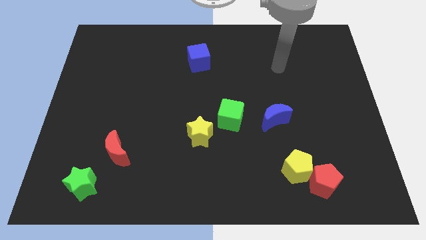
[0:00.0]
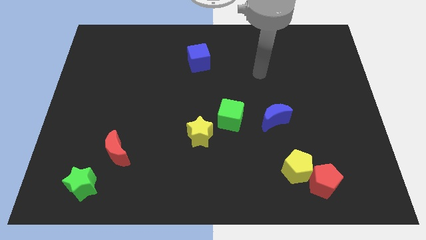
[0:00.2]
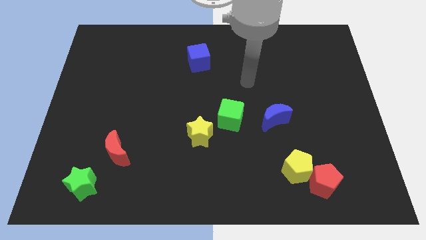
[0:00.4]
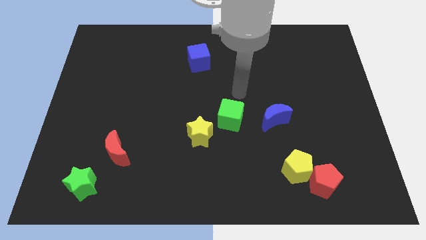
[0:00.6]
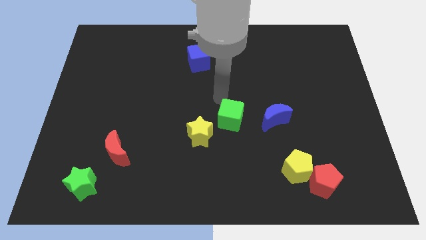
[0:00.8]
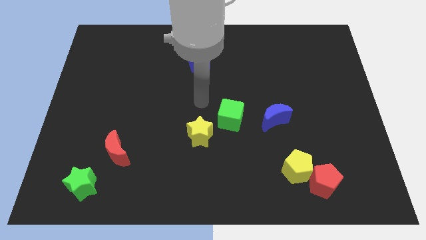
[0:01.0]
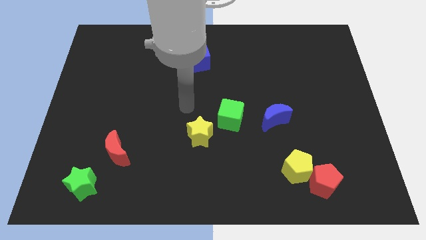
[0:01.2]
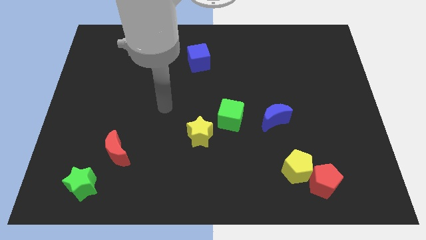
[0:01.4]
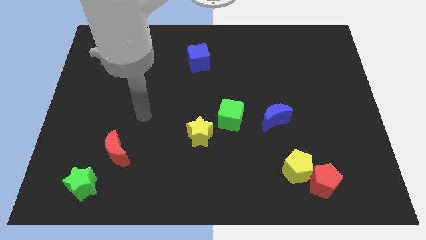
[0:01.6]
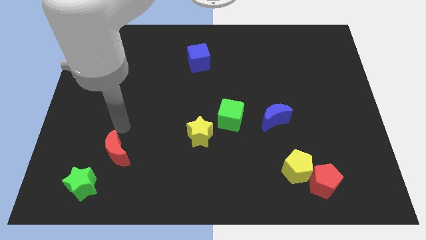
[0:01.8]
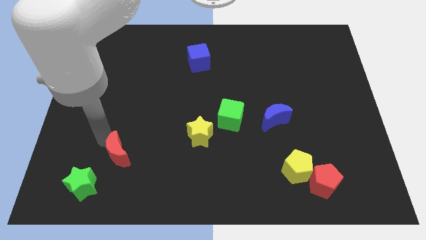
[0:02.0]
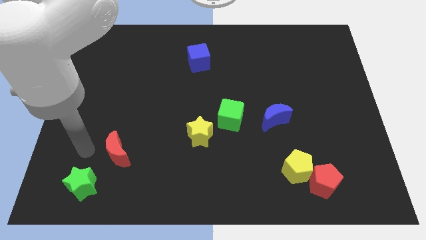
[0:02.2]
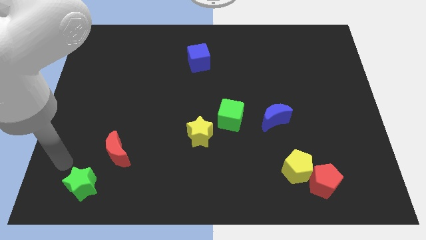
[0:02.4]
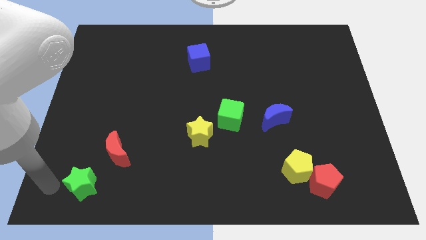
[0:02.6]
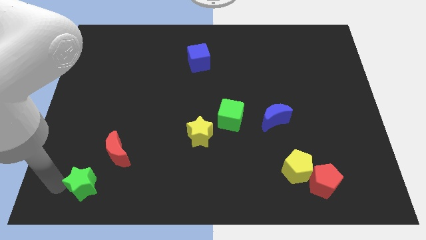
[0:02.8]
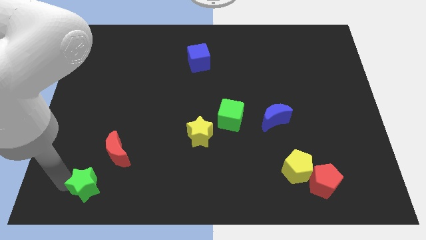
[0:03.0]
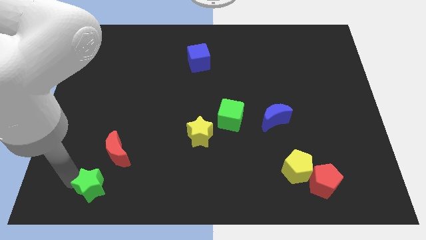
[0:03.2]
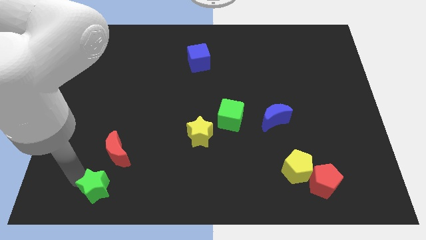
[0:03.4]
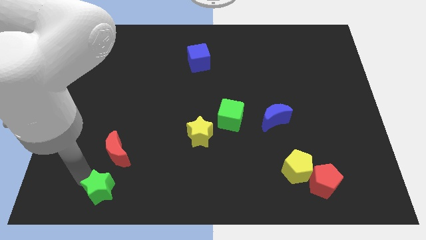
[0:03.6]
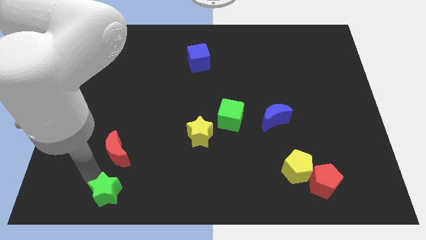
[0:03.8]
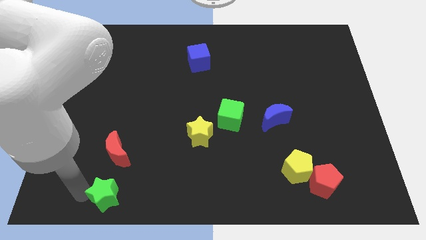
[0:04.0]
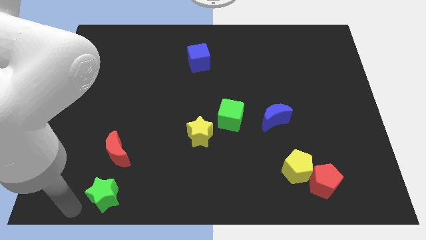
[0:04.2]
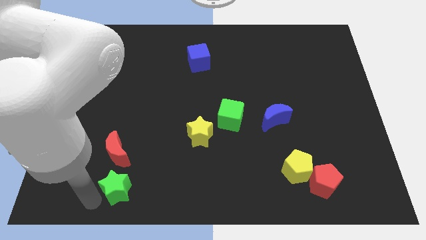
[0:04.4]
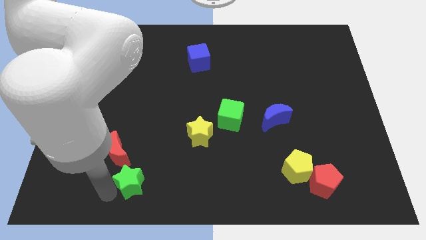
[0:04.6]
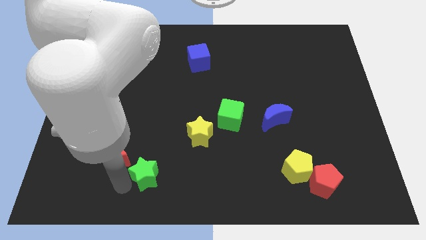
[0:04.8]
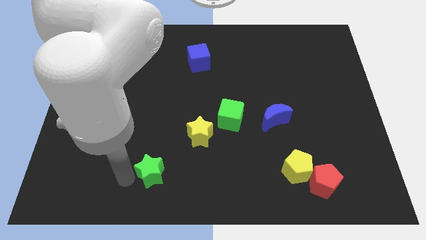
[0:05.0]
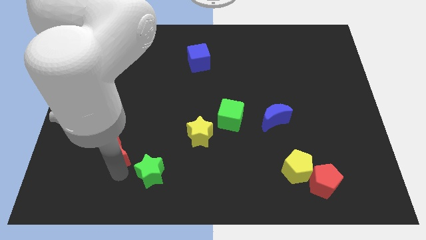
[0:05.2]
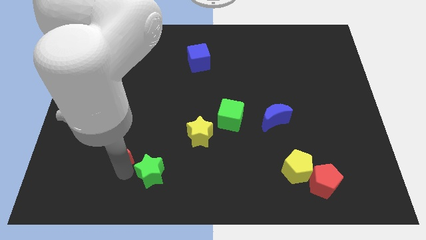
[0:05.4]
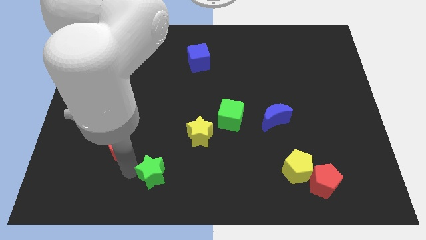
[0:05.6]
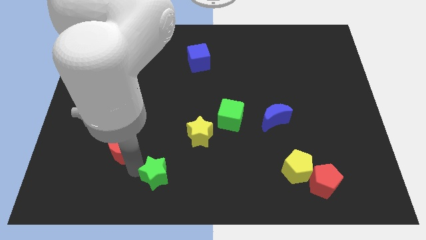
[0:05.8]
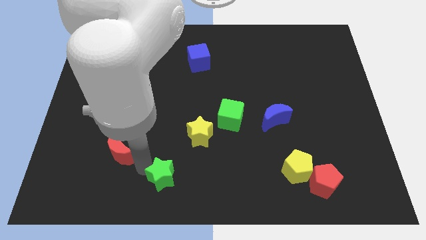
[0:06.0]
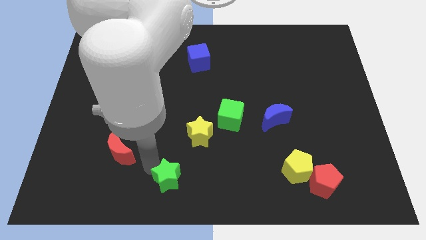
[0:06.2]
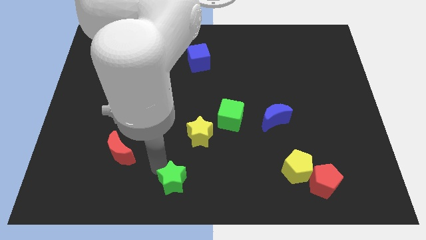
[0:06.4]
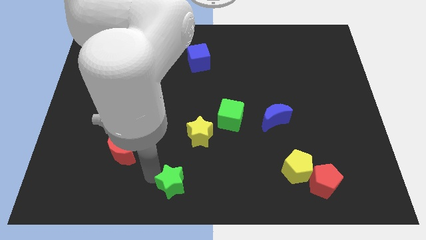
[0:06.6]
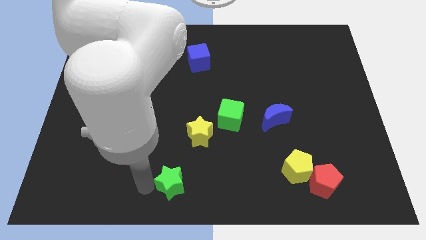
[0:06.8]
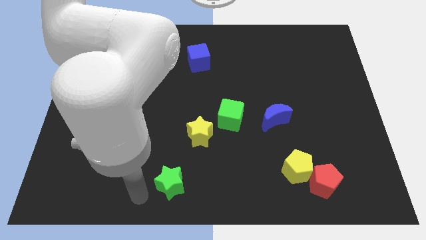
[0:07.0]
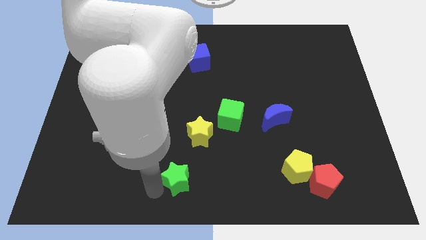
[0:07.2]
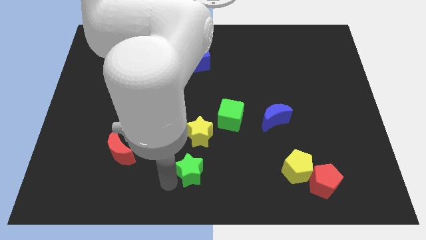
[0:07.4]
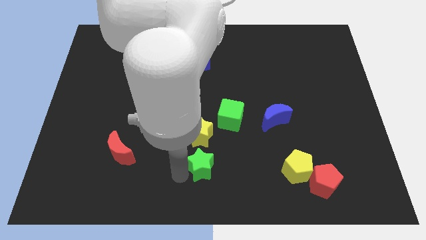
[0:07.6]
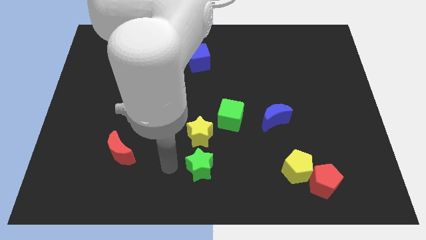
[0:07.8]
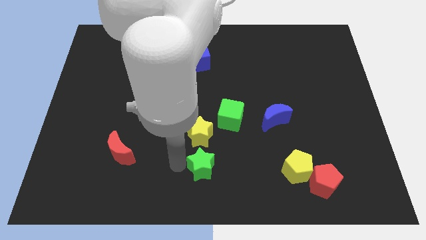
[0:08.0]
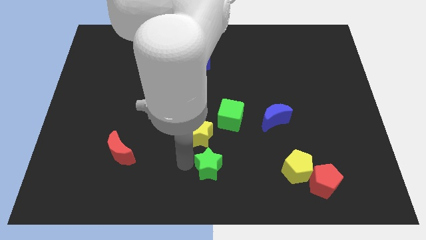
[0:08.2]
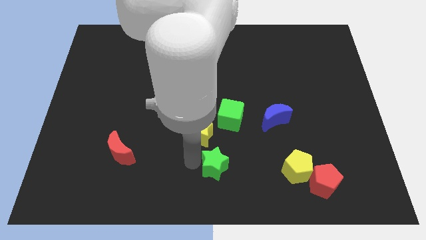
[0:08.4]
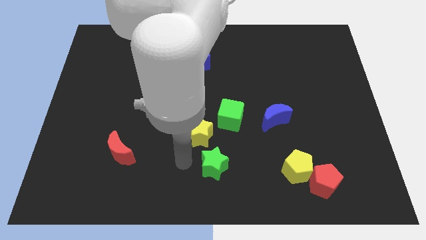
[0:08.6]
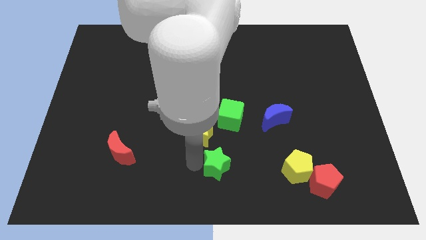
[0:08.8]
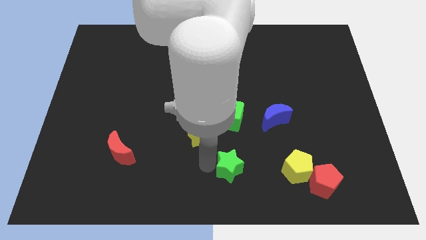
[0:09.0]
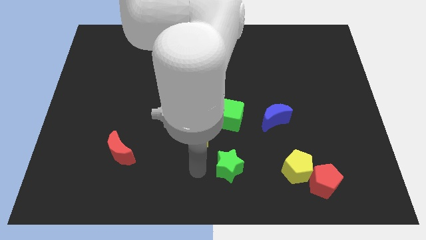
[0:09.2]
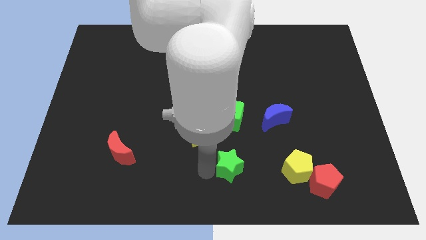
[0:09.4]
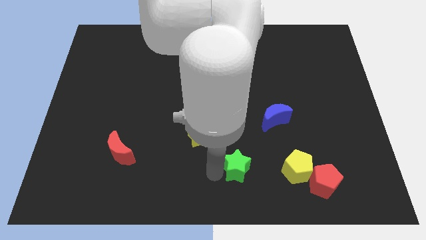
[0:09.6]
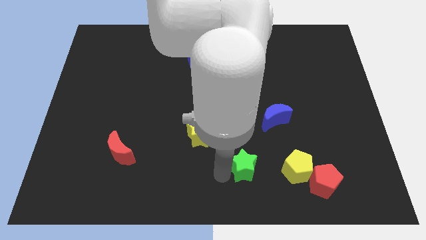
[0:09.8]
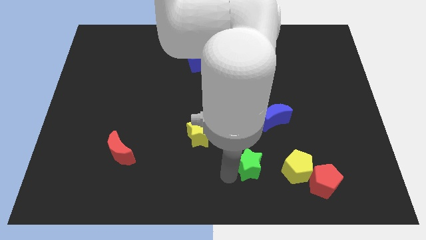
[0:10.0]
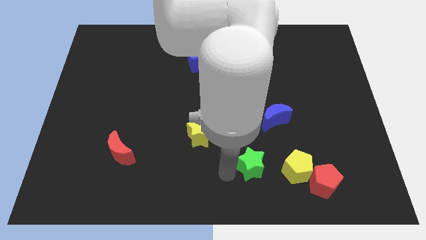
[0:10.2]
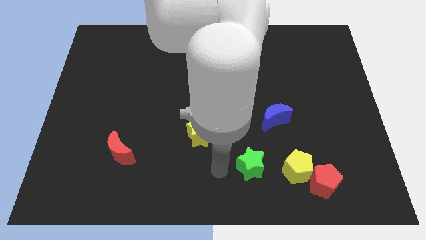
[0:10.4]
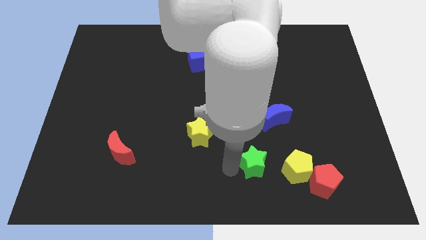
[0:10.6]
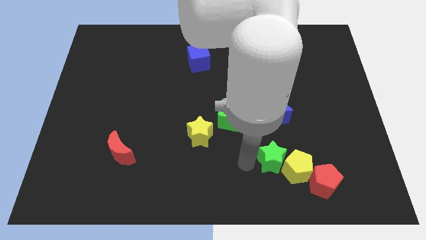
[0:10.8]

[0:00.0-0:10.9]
push the green star next to the yellow pentagon

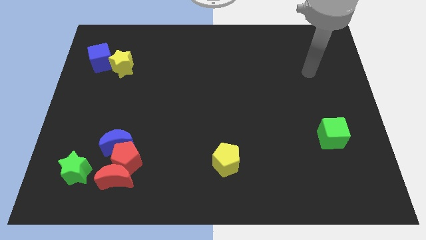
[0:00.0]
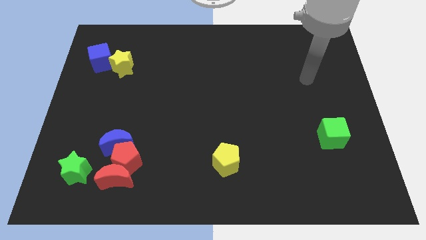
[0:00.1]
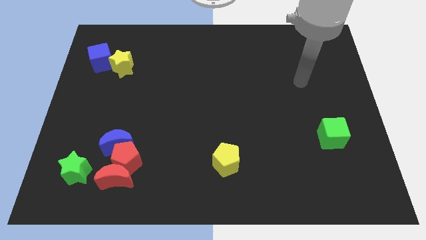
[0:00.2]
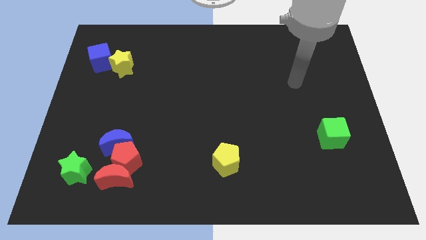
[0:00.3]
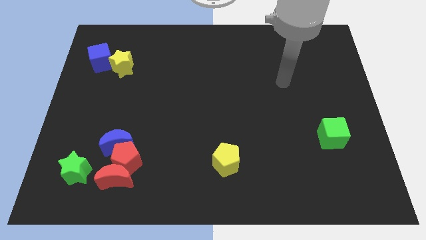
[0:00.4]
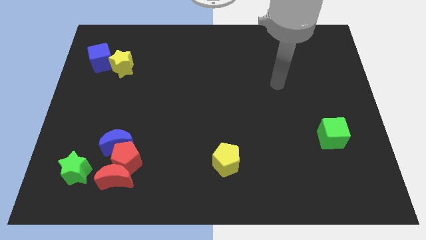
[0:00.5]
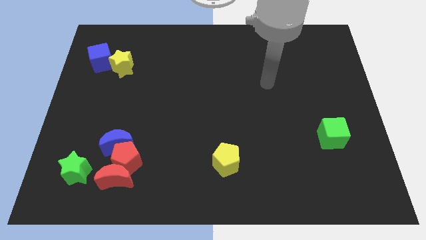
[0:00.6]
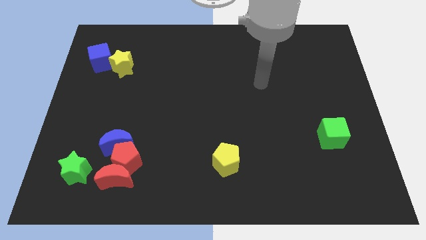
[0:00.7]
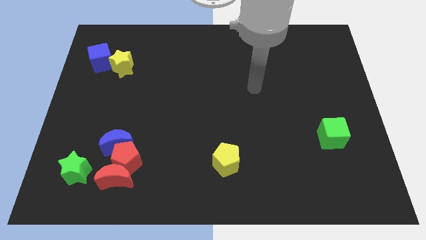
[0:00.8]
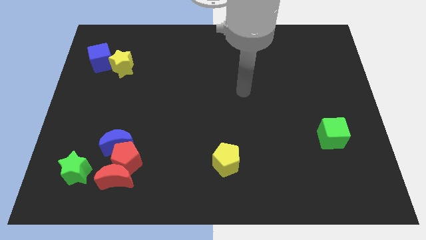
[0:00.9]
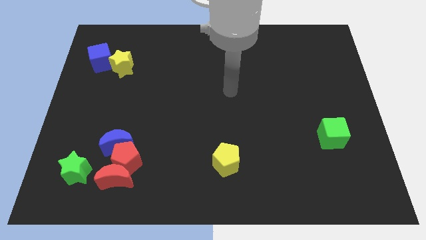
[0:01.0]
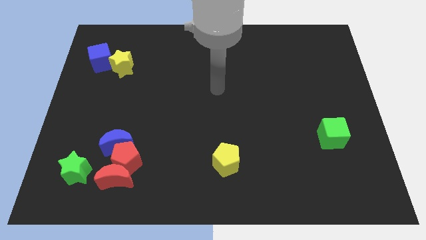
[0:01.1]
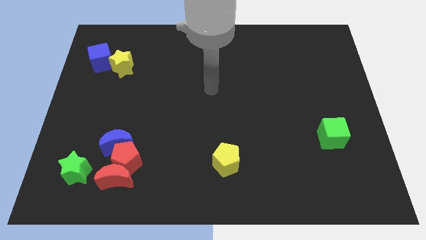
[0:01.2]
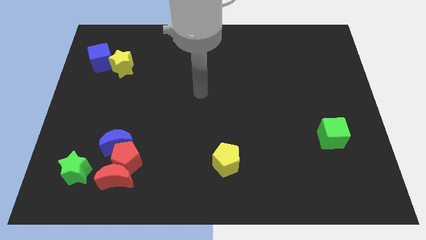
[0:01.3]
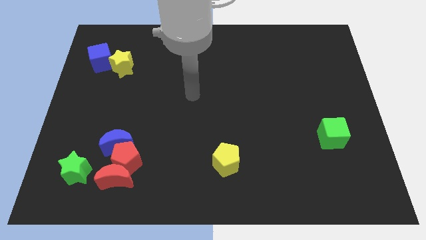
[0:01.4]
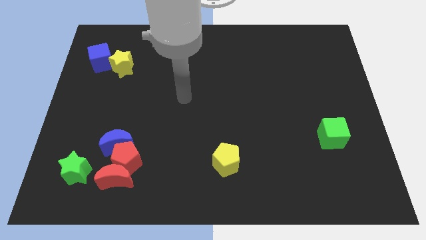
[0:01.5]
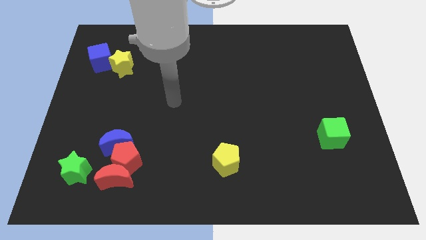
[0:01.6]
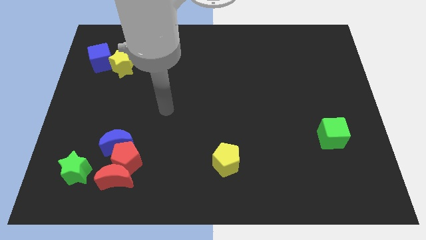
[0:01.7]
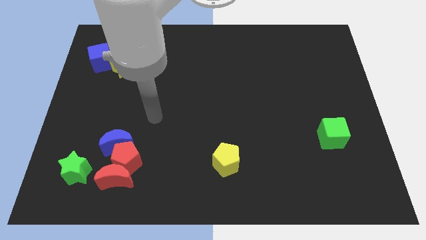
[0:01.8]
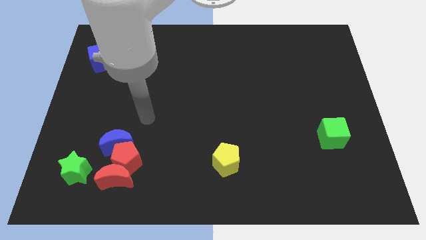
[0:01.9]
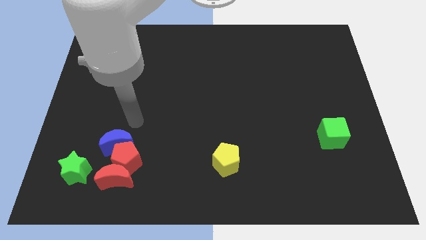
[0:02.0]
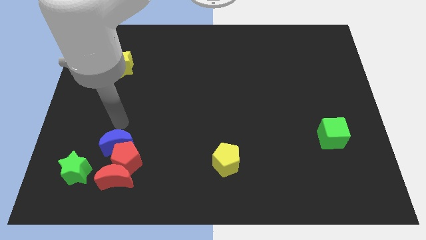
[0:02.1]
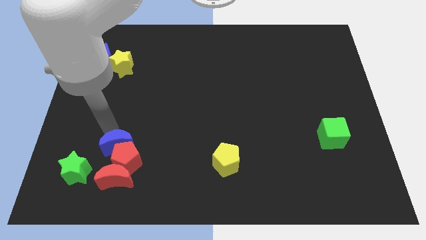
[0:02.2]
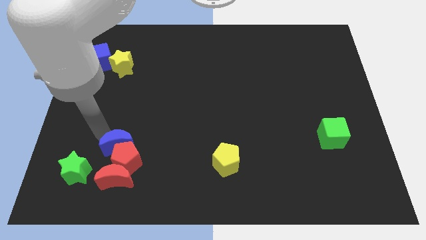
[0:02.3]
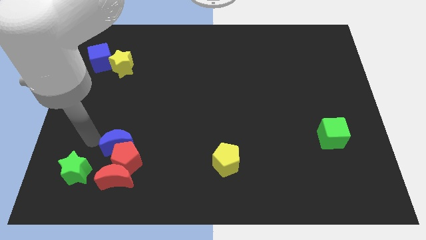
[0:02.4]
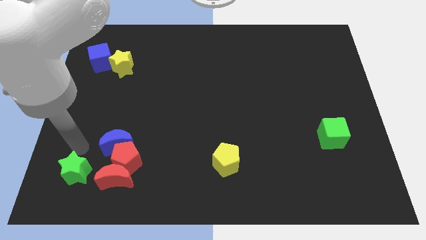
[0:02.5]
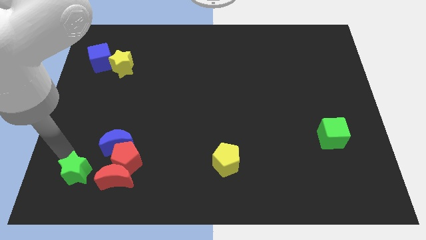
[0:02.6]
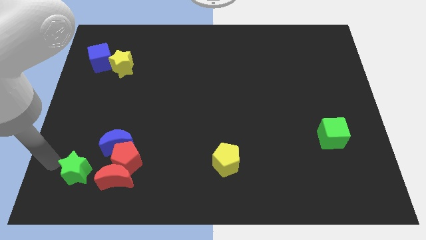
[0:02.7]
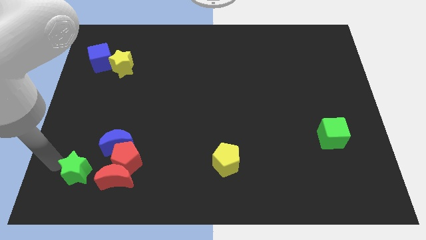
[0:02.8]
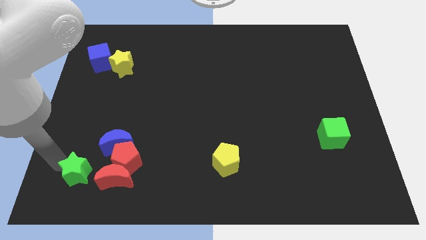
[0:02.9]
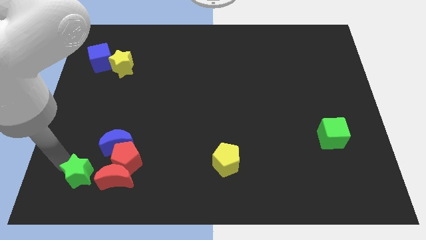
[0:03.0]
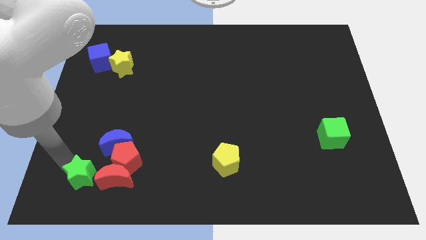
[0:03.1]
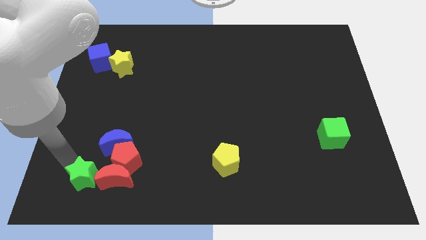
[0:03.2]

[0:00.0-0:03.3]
slide the green star next to the red moon
